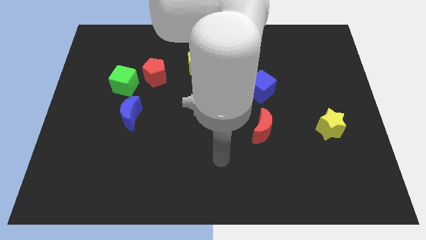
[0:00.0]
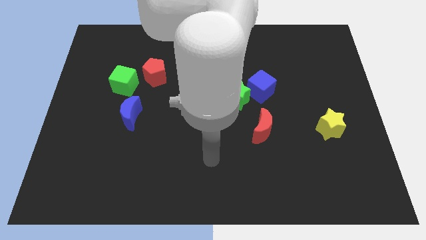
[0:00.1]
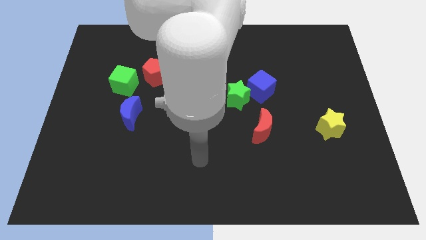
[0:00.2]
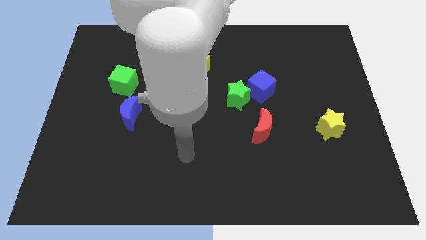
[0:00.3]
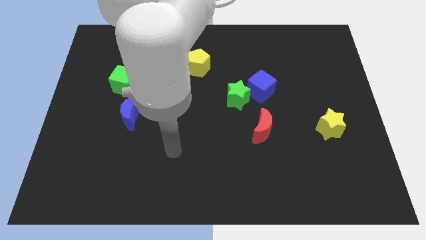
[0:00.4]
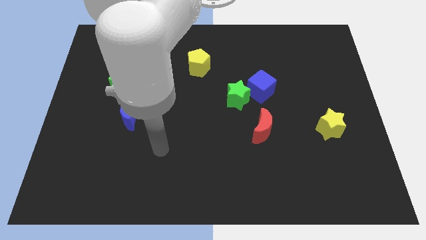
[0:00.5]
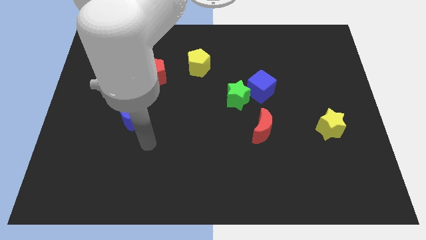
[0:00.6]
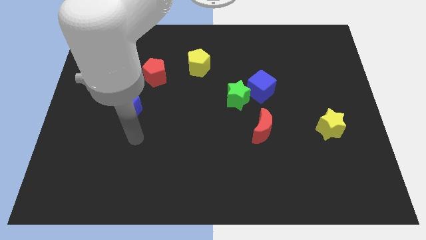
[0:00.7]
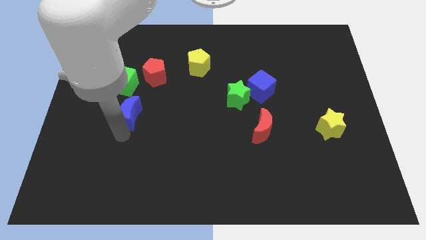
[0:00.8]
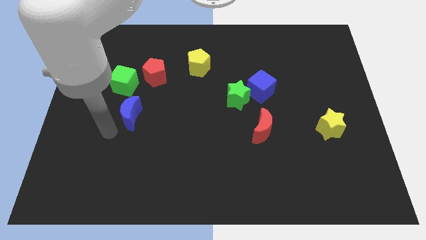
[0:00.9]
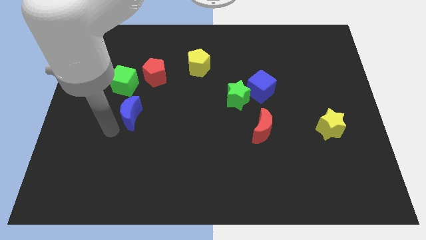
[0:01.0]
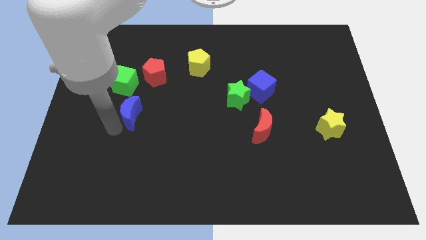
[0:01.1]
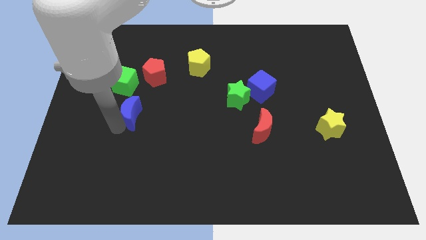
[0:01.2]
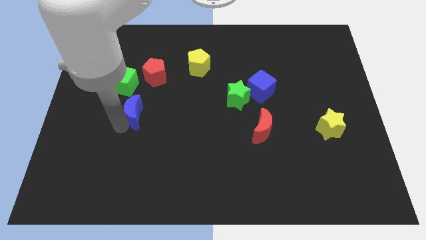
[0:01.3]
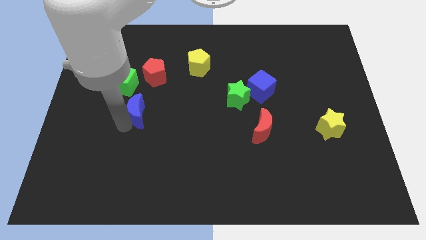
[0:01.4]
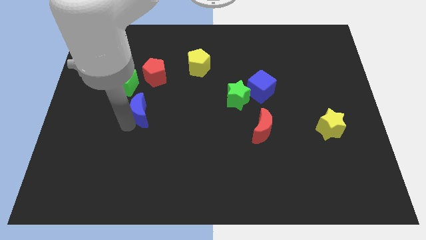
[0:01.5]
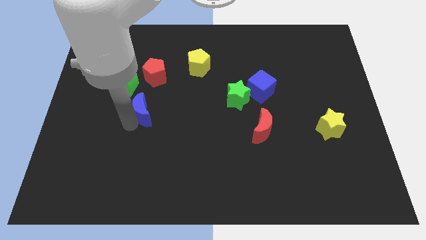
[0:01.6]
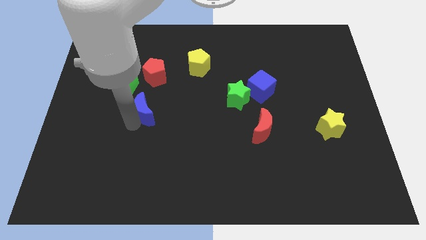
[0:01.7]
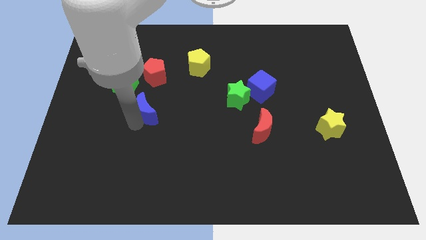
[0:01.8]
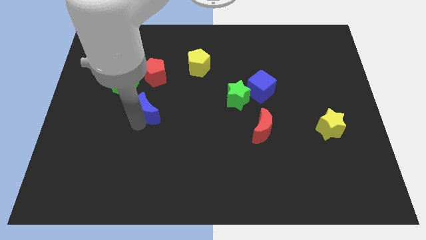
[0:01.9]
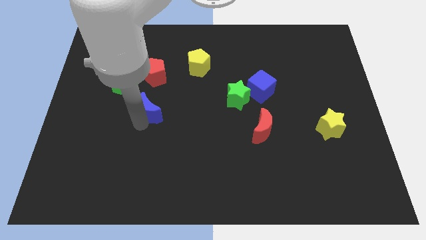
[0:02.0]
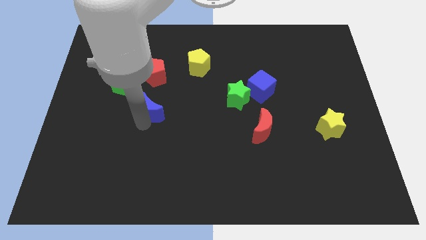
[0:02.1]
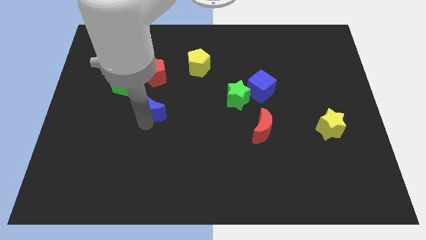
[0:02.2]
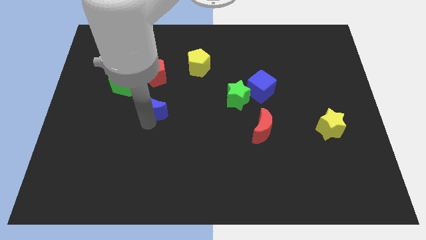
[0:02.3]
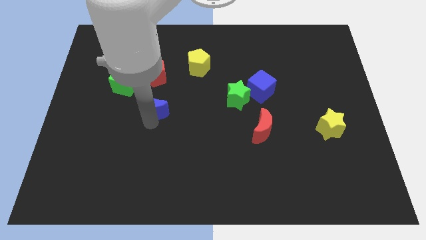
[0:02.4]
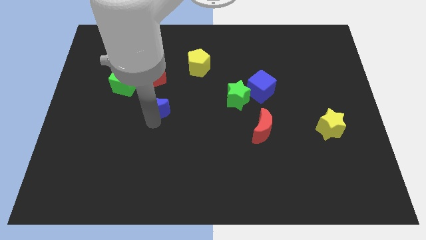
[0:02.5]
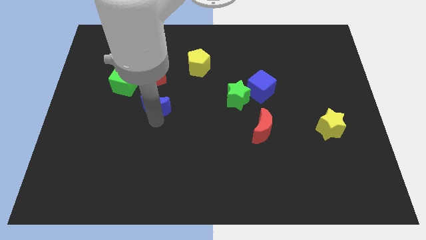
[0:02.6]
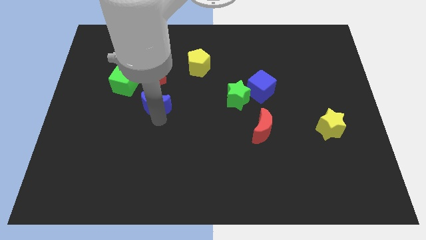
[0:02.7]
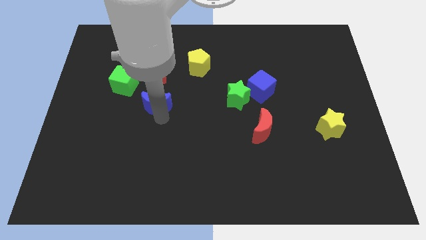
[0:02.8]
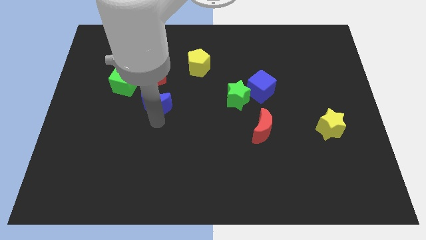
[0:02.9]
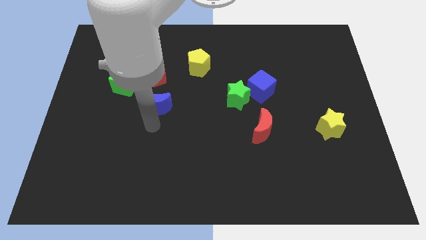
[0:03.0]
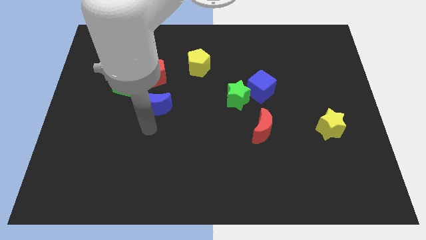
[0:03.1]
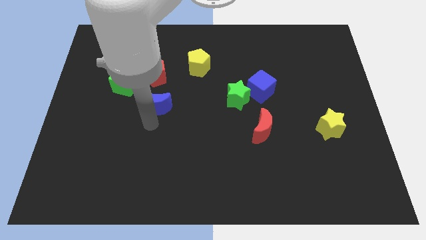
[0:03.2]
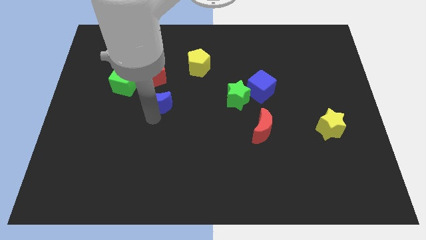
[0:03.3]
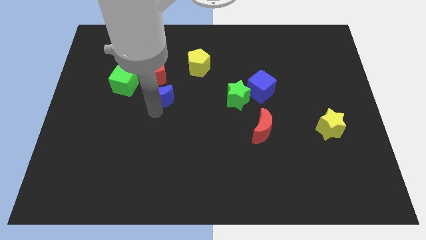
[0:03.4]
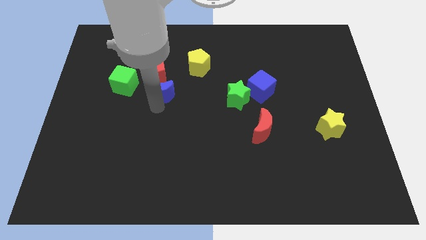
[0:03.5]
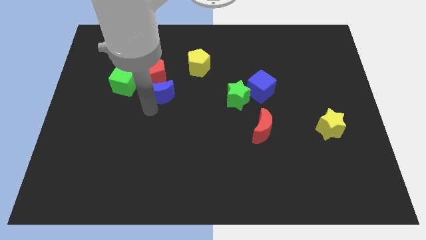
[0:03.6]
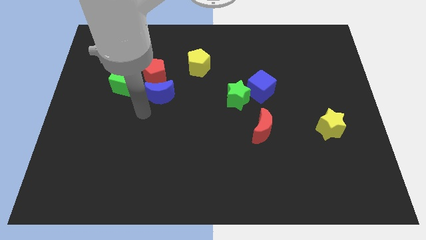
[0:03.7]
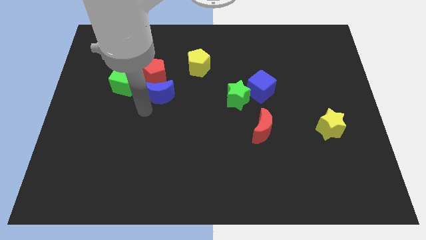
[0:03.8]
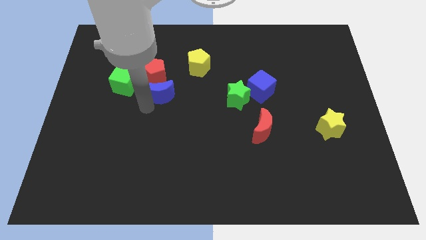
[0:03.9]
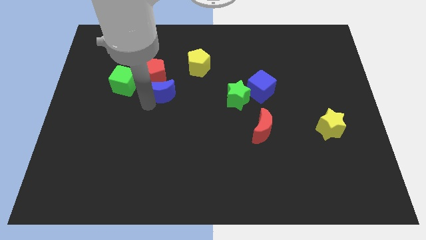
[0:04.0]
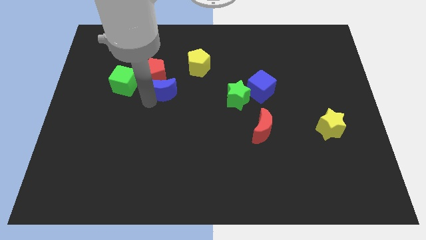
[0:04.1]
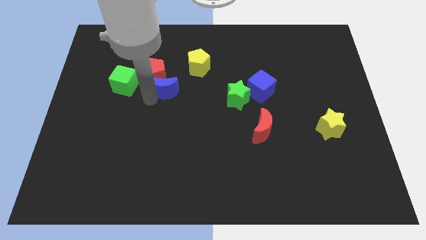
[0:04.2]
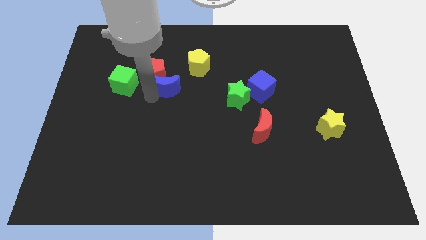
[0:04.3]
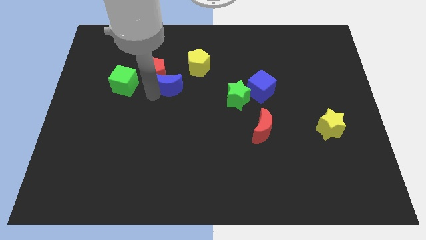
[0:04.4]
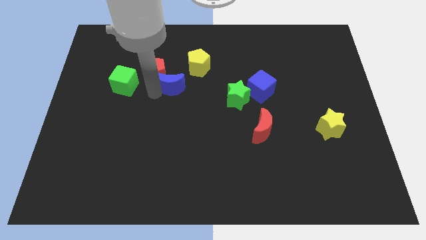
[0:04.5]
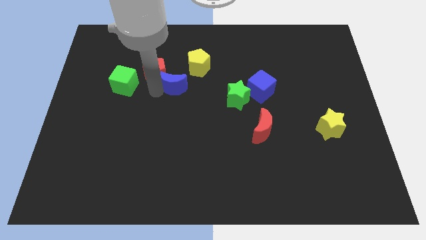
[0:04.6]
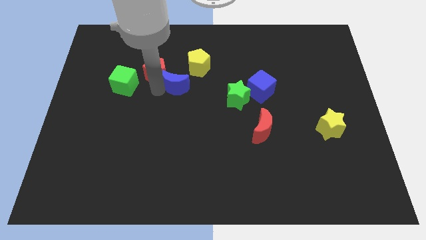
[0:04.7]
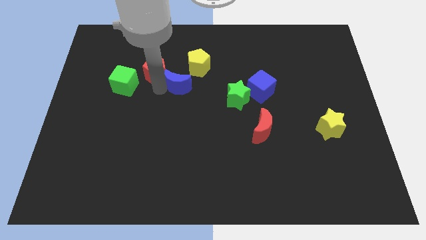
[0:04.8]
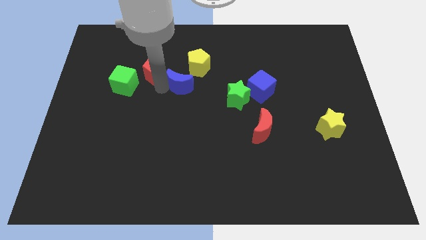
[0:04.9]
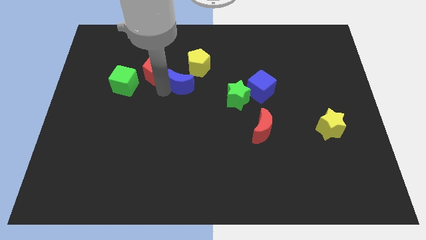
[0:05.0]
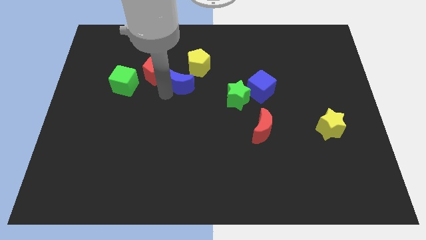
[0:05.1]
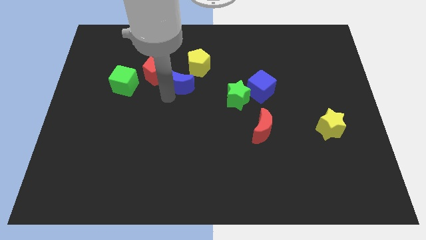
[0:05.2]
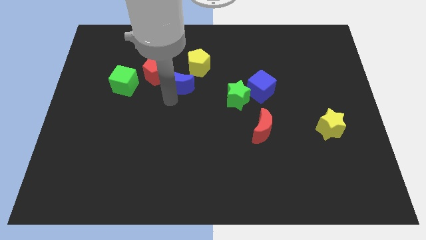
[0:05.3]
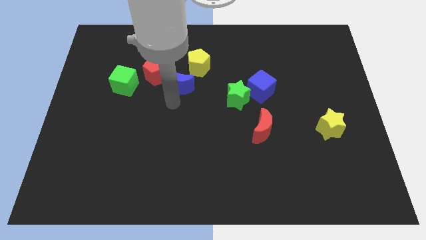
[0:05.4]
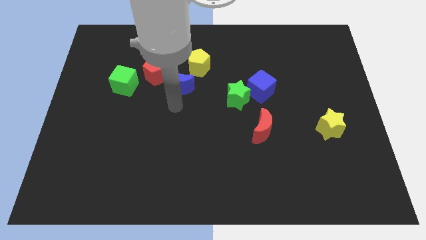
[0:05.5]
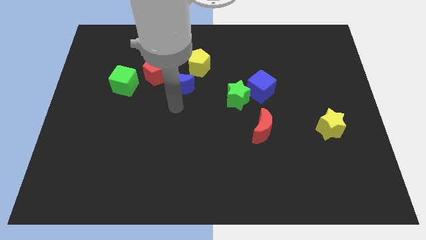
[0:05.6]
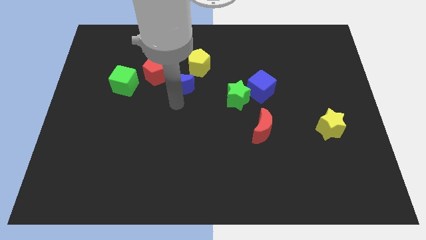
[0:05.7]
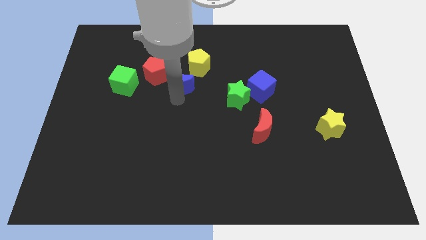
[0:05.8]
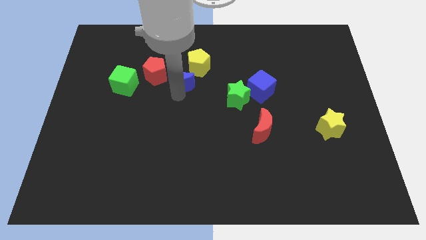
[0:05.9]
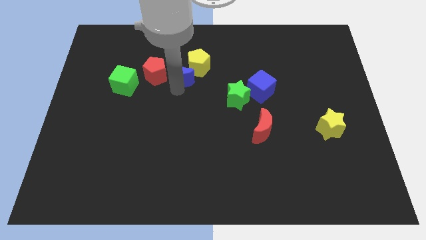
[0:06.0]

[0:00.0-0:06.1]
move the blue moon towards the yellow pentagon
